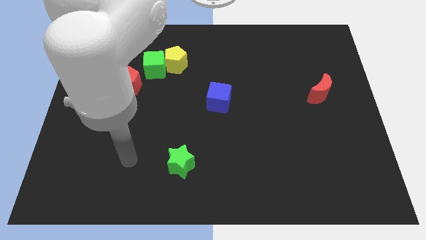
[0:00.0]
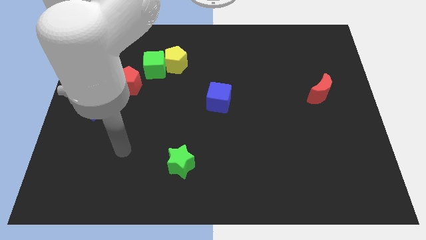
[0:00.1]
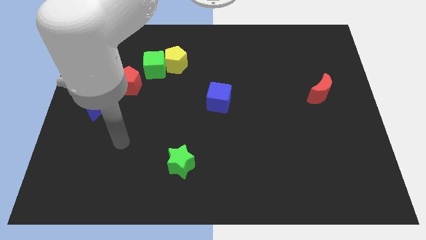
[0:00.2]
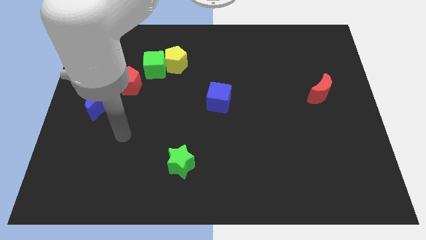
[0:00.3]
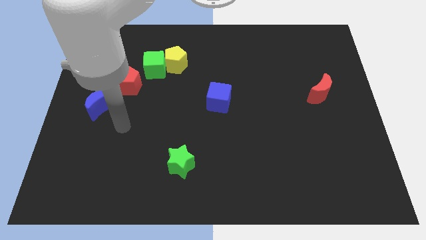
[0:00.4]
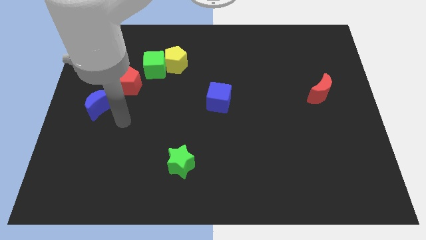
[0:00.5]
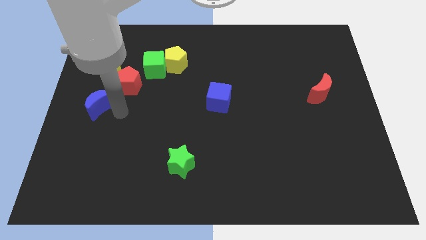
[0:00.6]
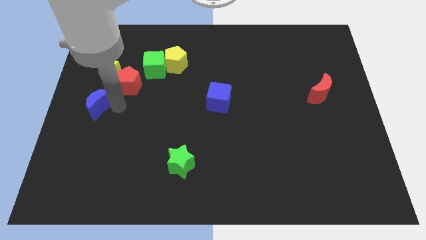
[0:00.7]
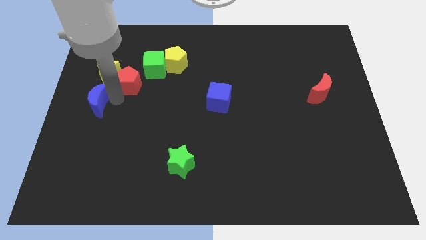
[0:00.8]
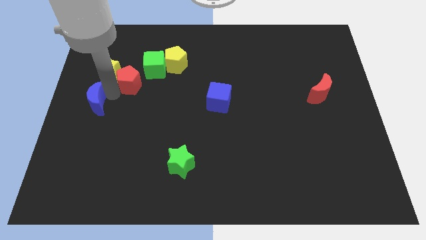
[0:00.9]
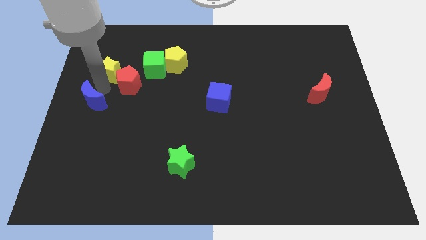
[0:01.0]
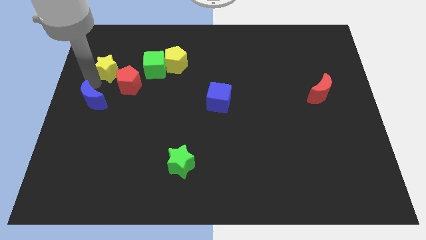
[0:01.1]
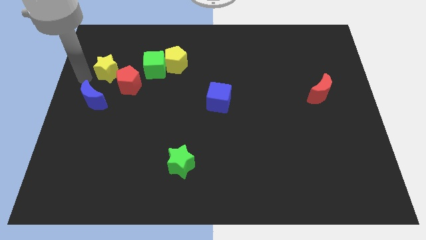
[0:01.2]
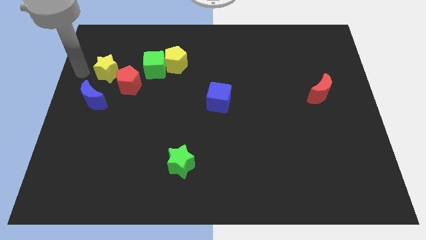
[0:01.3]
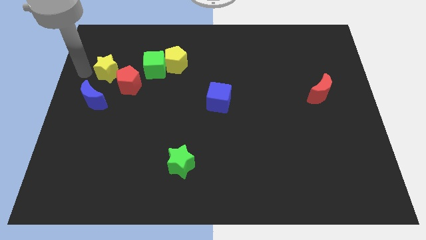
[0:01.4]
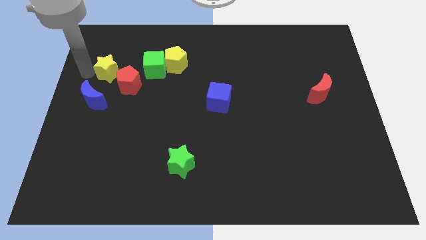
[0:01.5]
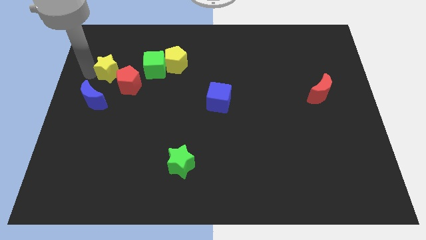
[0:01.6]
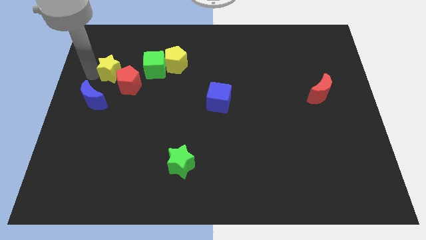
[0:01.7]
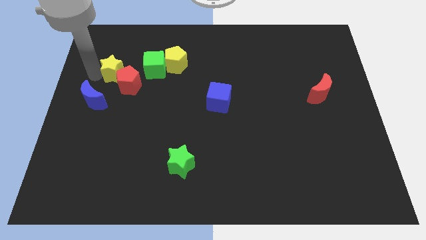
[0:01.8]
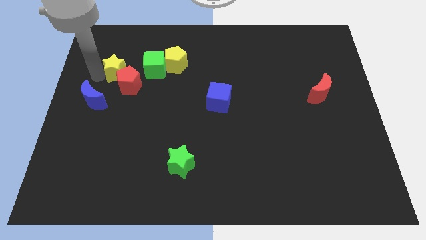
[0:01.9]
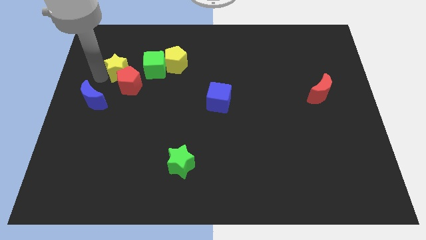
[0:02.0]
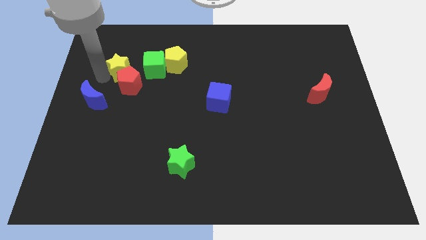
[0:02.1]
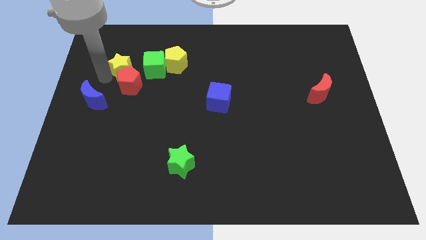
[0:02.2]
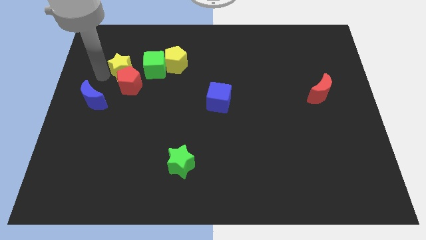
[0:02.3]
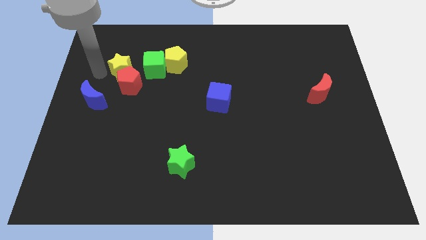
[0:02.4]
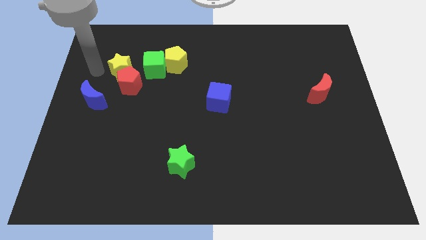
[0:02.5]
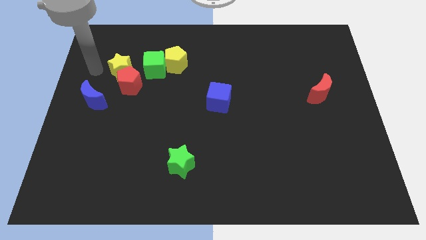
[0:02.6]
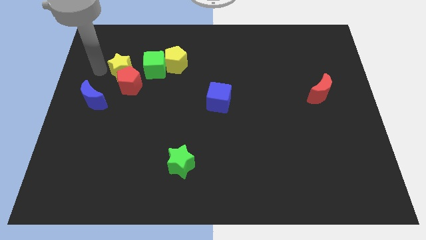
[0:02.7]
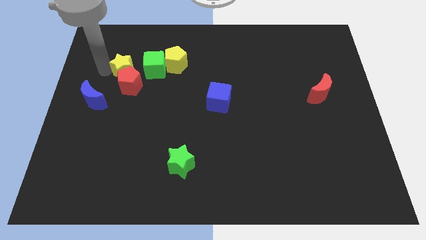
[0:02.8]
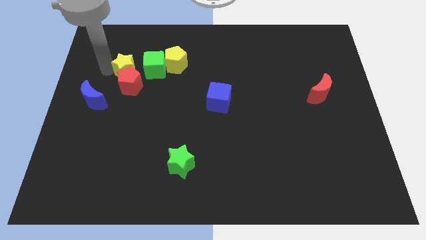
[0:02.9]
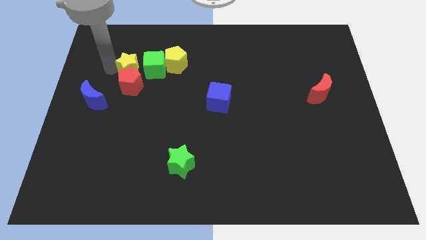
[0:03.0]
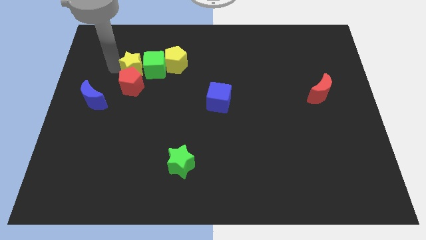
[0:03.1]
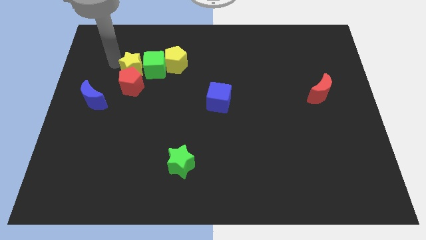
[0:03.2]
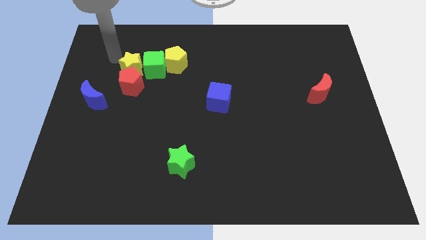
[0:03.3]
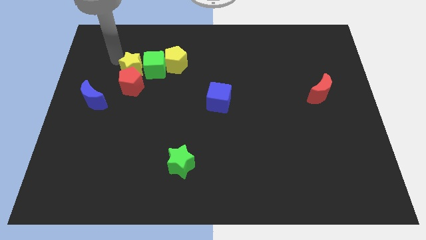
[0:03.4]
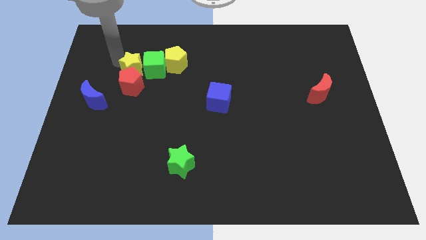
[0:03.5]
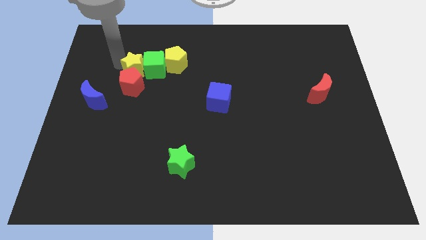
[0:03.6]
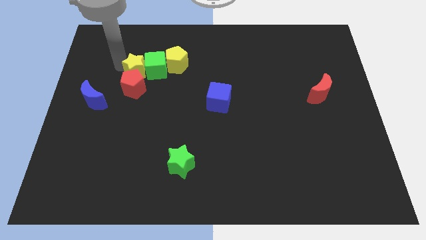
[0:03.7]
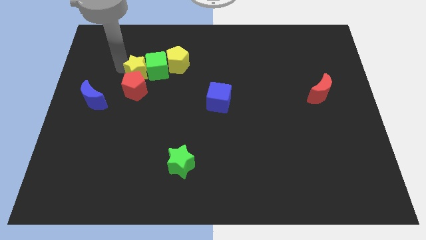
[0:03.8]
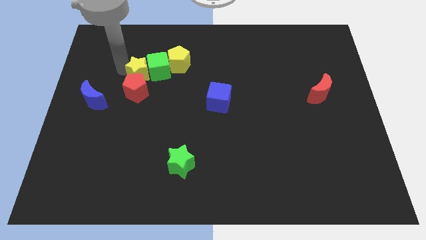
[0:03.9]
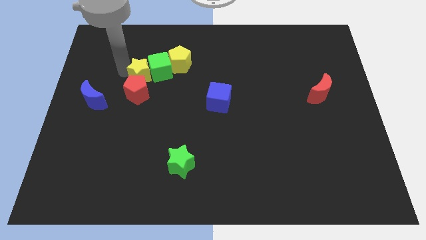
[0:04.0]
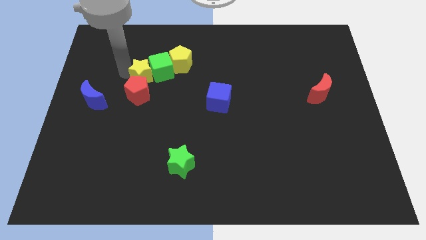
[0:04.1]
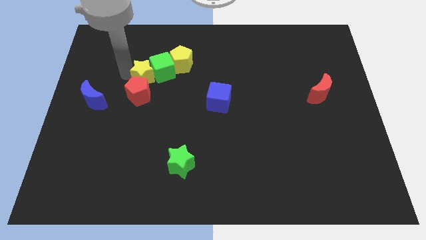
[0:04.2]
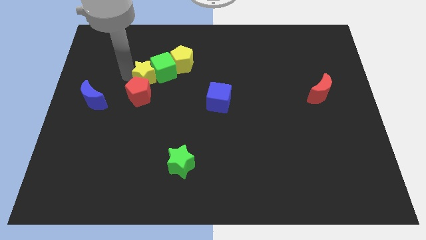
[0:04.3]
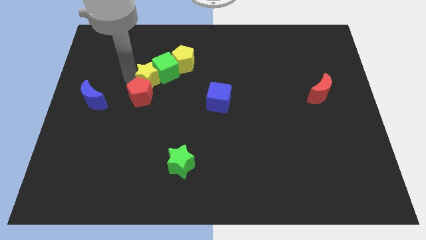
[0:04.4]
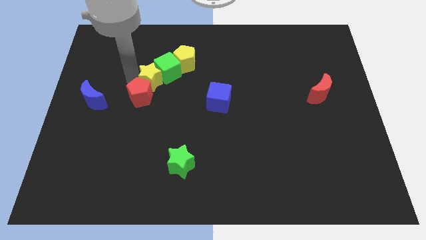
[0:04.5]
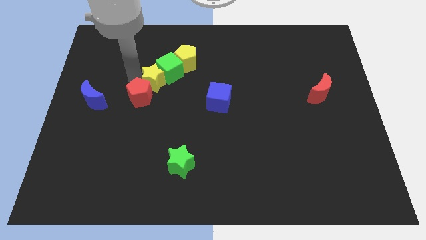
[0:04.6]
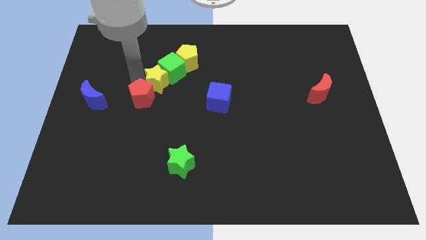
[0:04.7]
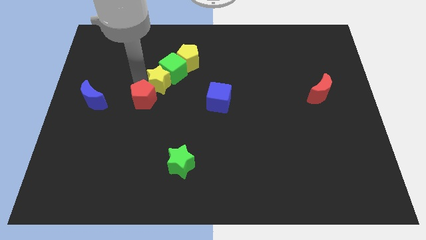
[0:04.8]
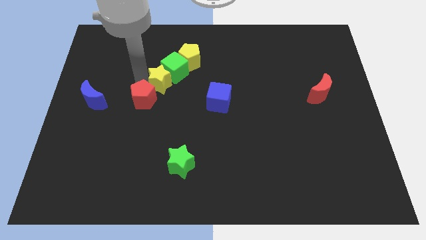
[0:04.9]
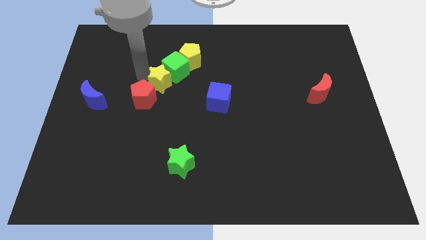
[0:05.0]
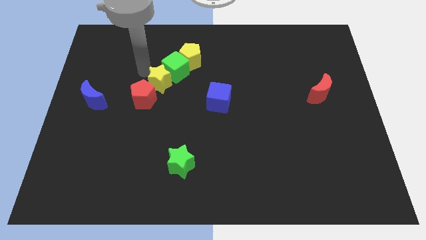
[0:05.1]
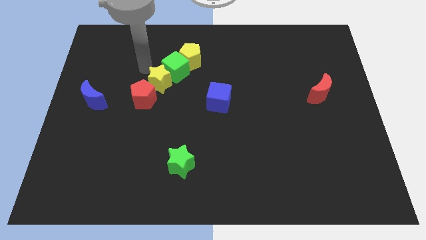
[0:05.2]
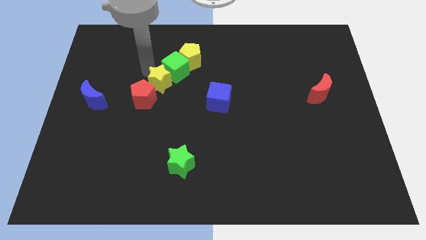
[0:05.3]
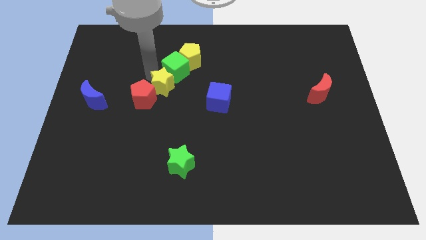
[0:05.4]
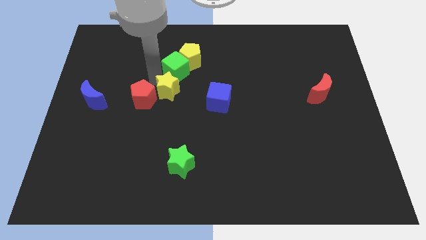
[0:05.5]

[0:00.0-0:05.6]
slide the yellow star left of the blue cube

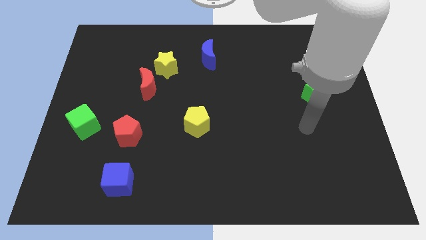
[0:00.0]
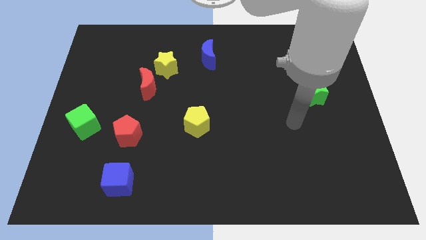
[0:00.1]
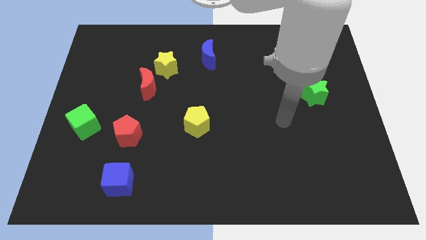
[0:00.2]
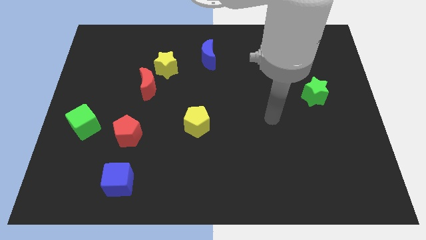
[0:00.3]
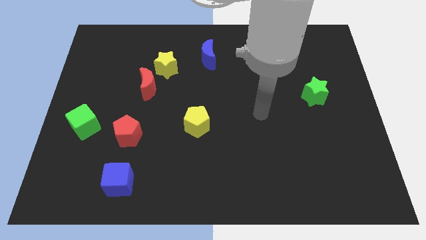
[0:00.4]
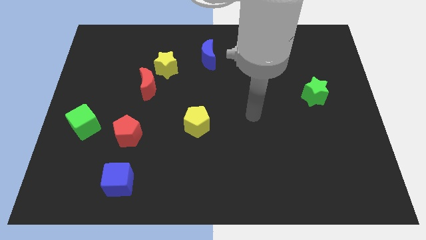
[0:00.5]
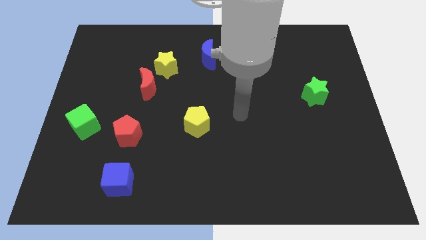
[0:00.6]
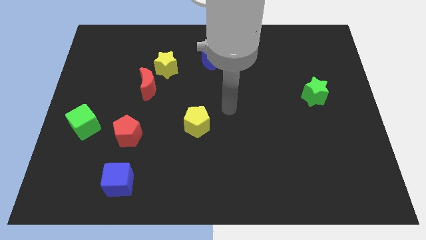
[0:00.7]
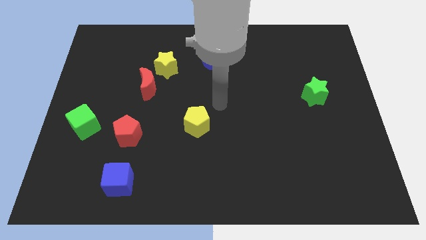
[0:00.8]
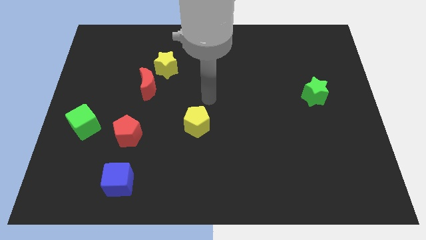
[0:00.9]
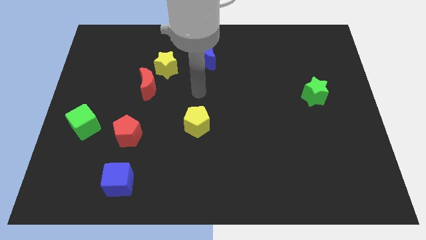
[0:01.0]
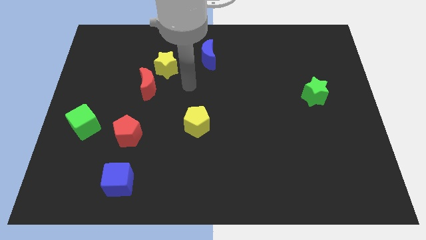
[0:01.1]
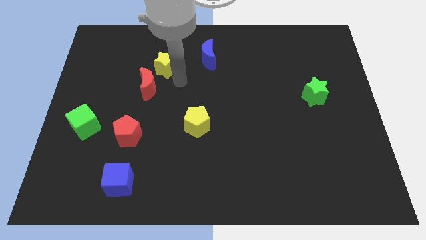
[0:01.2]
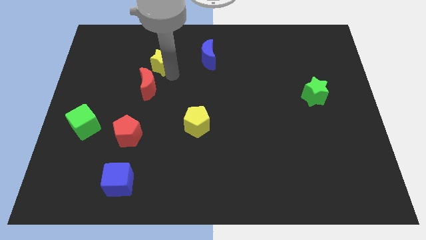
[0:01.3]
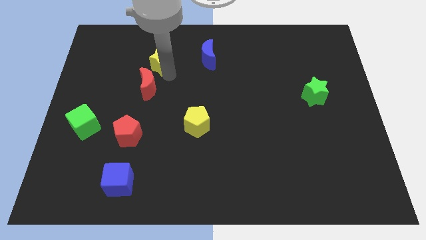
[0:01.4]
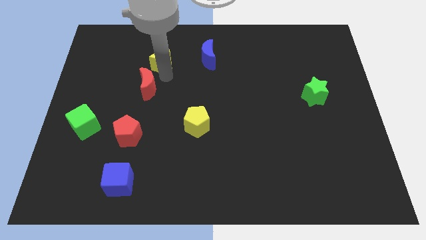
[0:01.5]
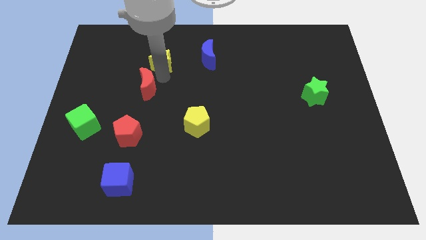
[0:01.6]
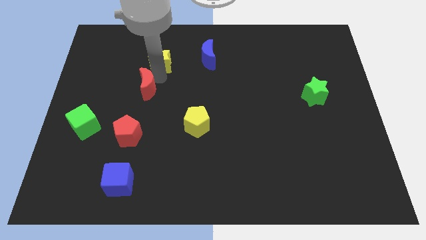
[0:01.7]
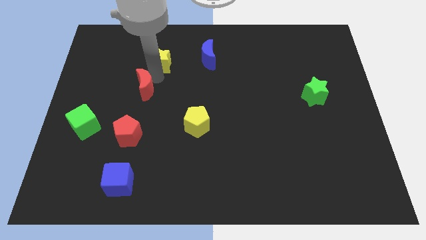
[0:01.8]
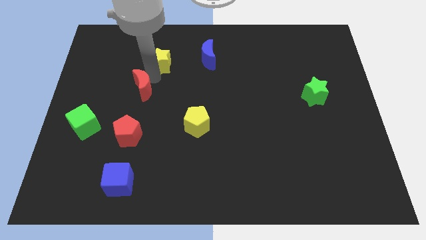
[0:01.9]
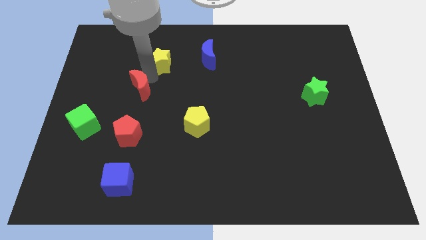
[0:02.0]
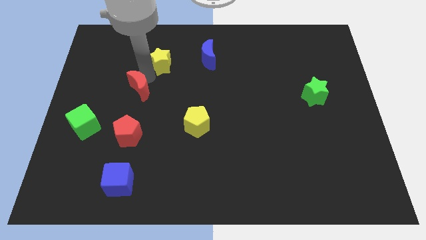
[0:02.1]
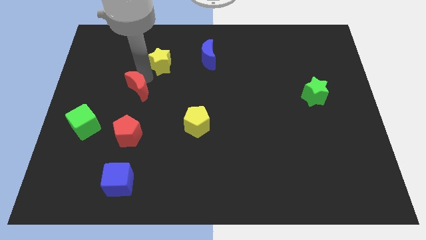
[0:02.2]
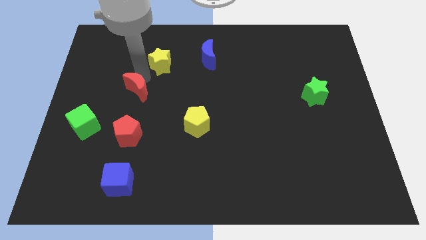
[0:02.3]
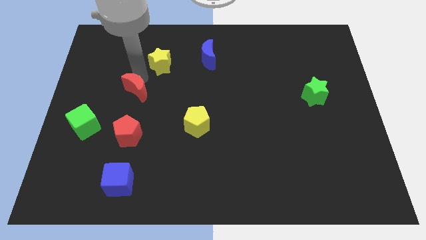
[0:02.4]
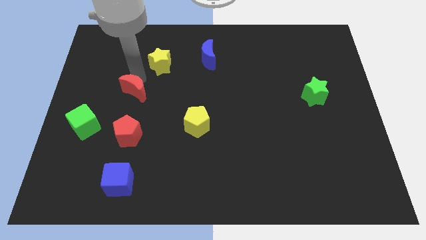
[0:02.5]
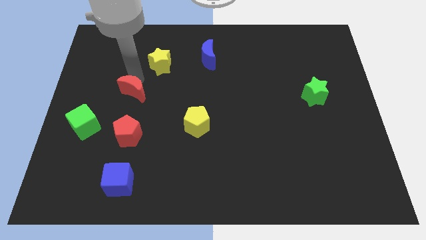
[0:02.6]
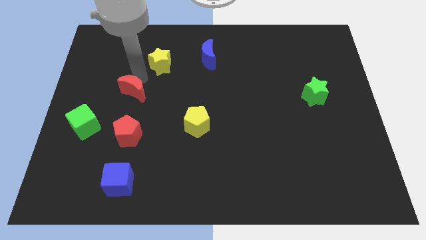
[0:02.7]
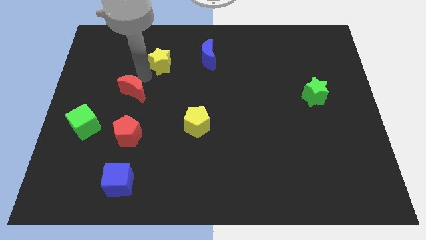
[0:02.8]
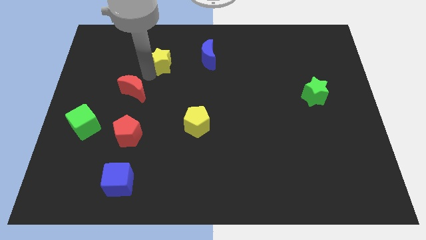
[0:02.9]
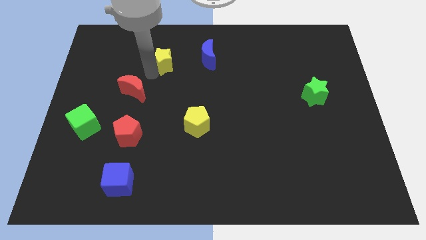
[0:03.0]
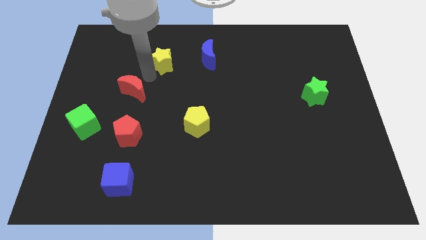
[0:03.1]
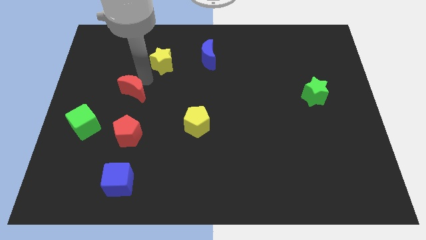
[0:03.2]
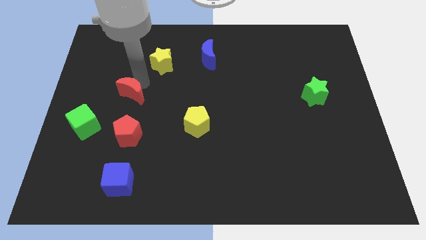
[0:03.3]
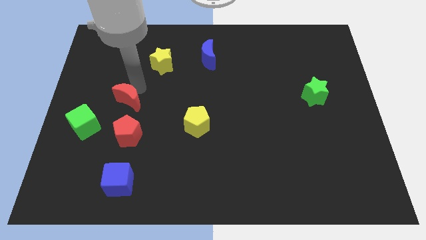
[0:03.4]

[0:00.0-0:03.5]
slide the red moon diagonally up and to the right of the green cube
